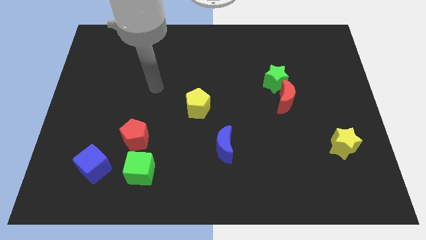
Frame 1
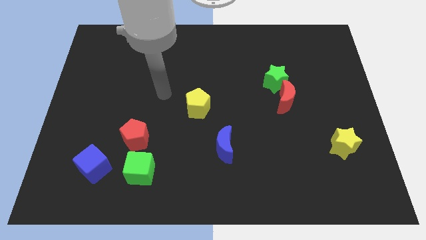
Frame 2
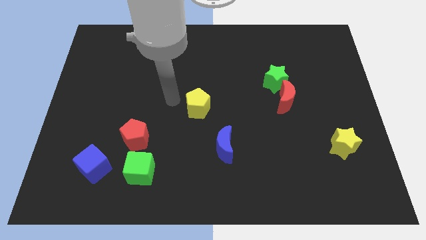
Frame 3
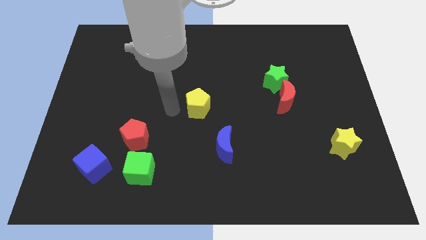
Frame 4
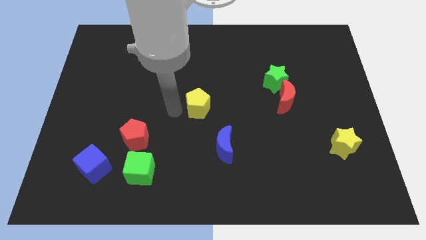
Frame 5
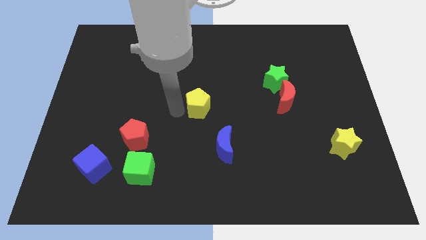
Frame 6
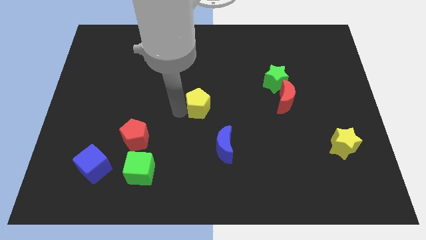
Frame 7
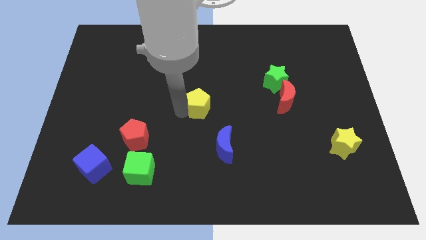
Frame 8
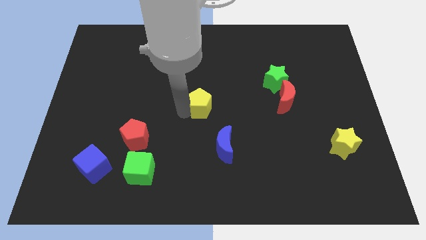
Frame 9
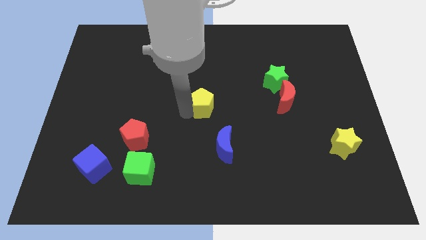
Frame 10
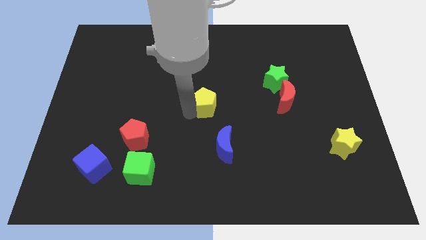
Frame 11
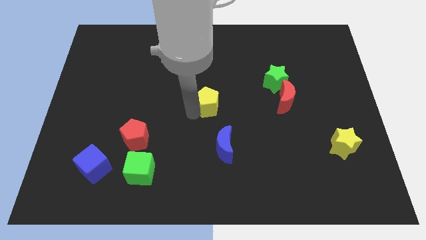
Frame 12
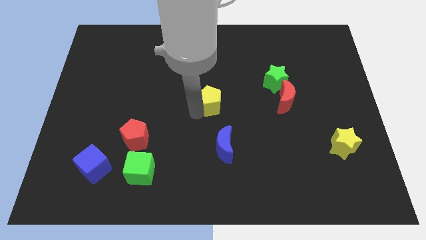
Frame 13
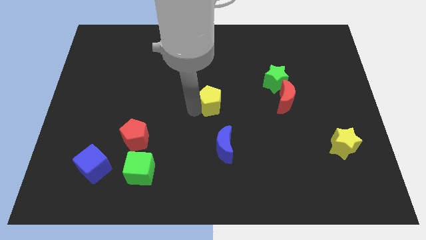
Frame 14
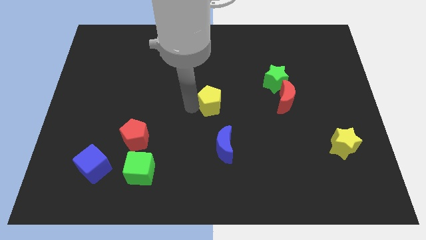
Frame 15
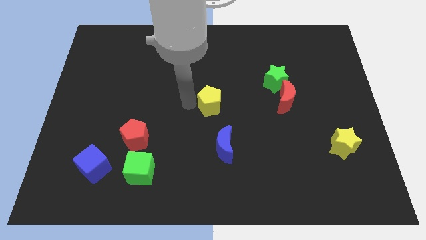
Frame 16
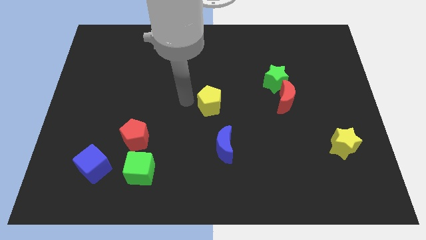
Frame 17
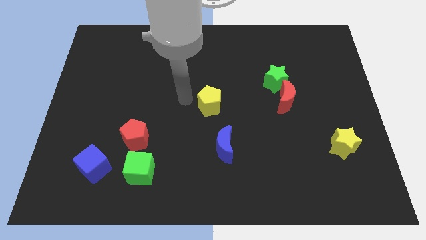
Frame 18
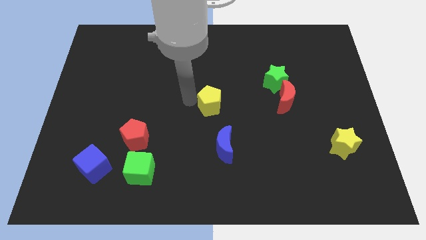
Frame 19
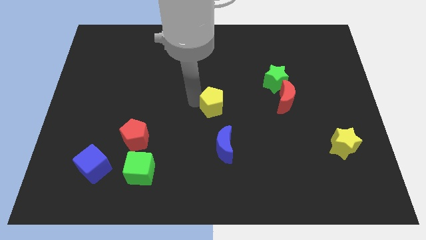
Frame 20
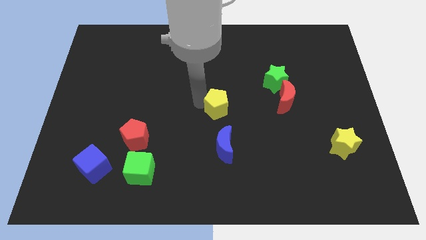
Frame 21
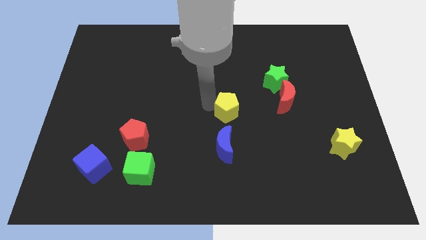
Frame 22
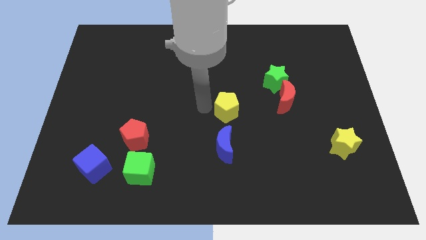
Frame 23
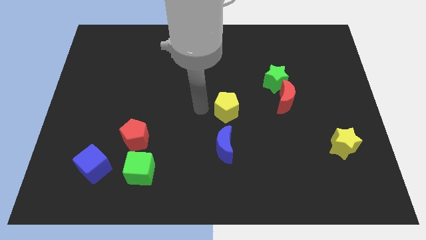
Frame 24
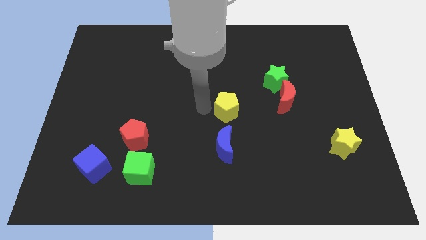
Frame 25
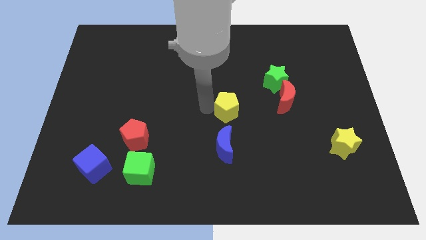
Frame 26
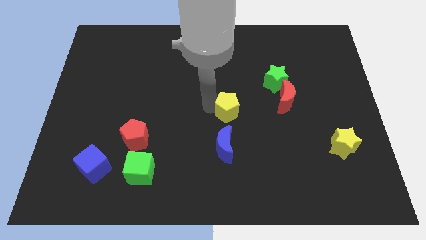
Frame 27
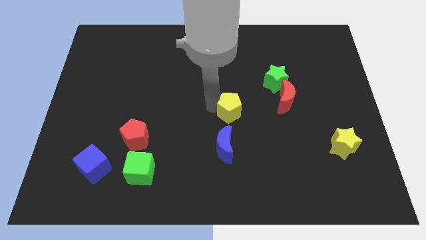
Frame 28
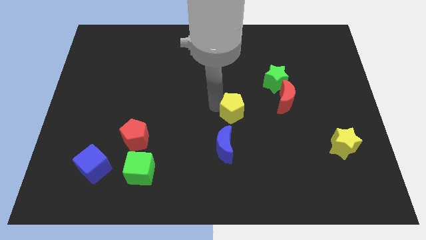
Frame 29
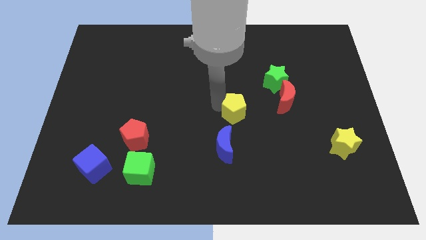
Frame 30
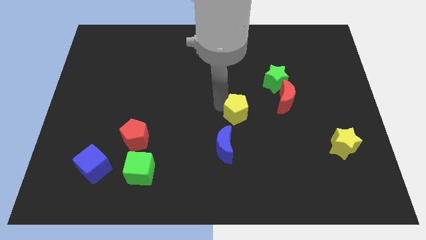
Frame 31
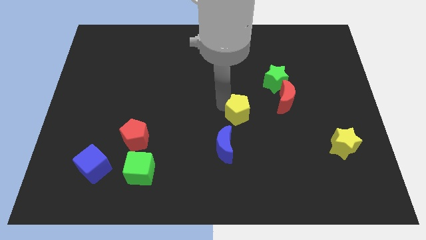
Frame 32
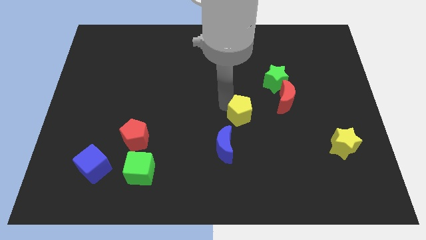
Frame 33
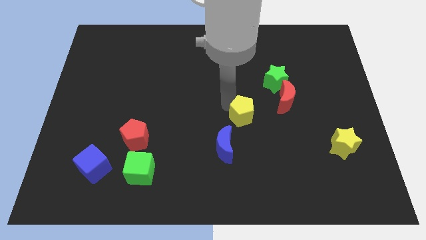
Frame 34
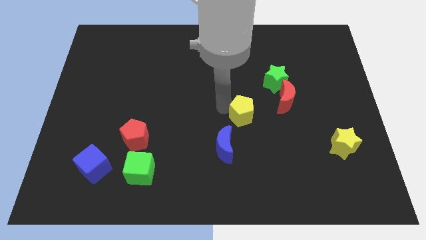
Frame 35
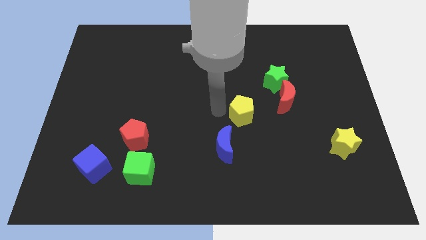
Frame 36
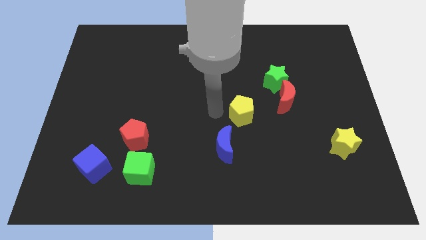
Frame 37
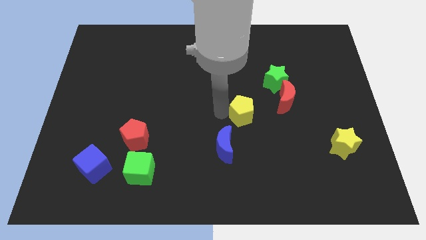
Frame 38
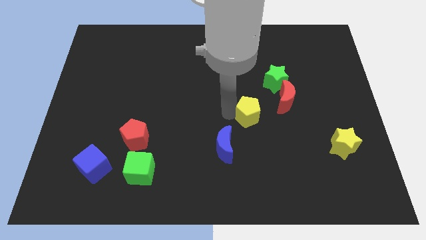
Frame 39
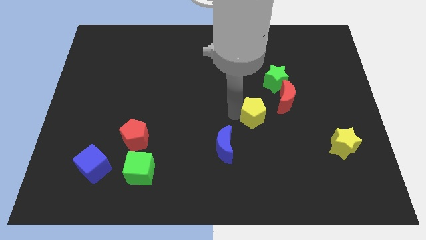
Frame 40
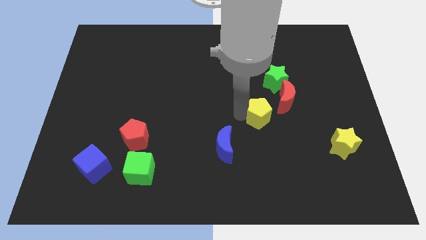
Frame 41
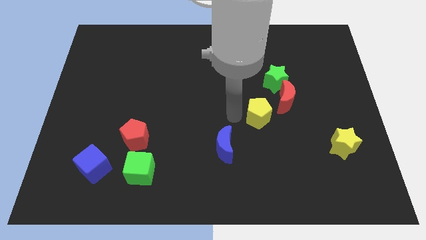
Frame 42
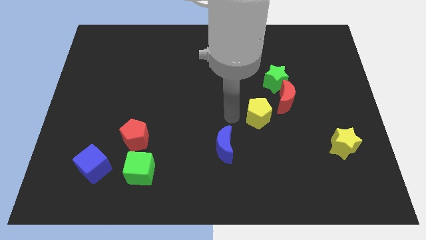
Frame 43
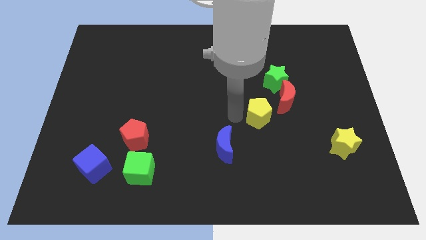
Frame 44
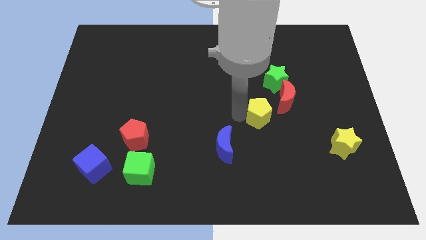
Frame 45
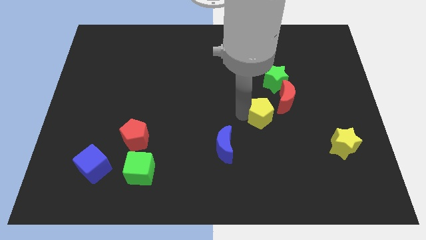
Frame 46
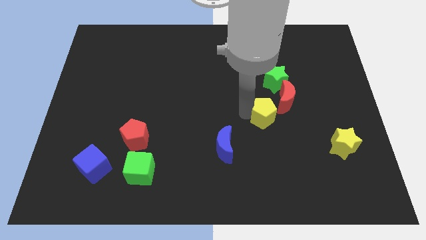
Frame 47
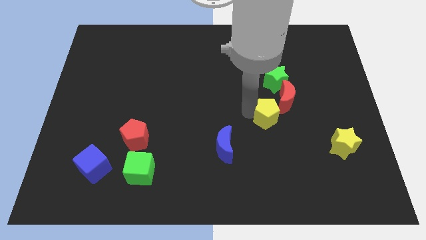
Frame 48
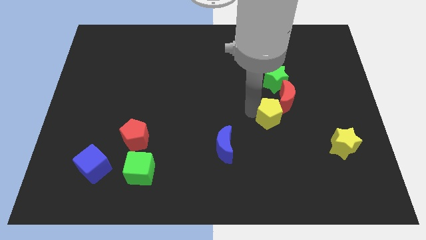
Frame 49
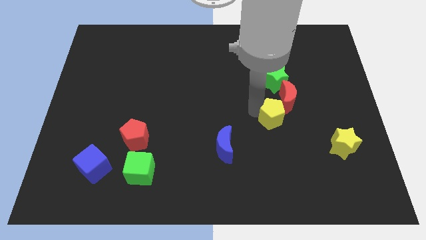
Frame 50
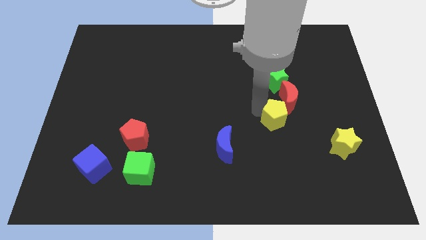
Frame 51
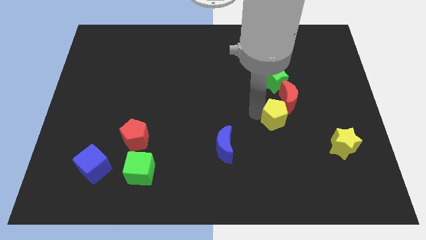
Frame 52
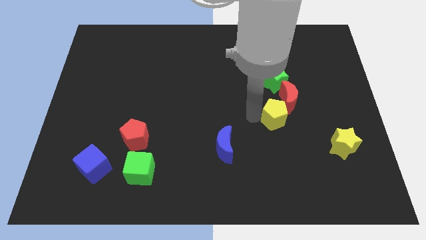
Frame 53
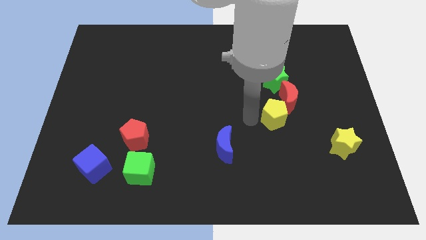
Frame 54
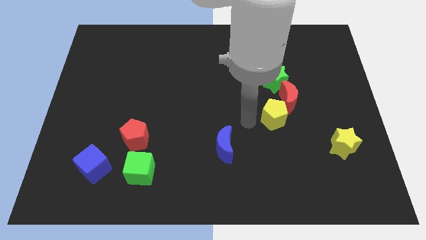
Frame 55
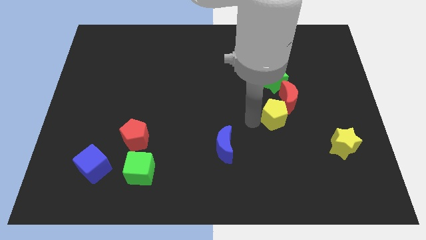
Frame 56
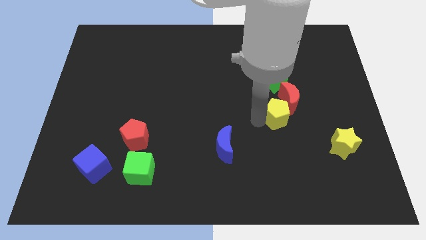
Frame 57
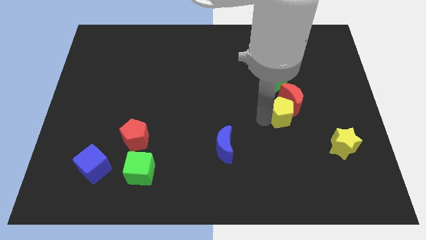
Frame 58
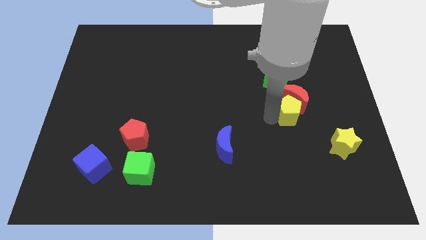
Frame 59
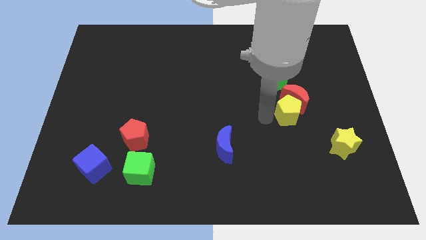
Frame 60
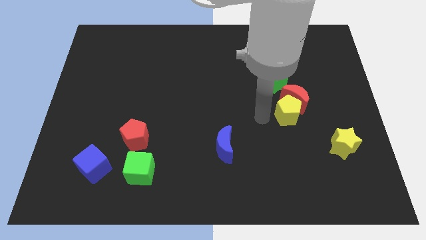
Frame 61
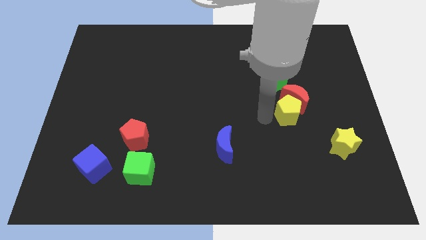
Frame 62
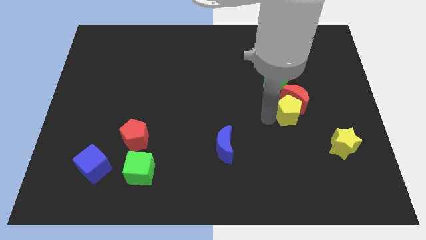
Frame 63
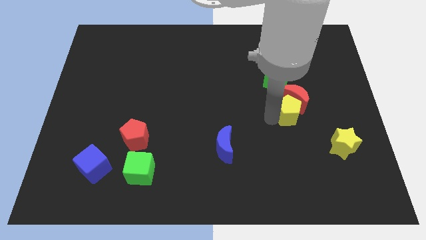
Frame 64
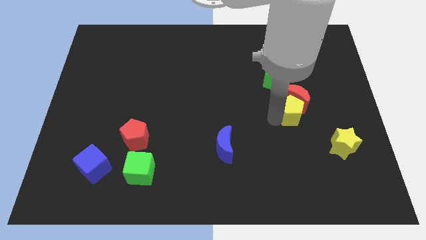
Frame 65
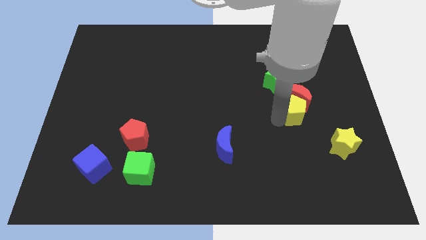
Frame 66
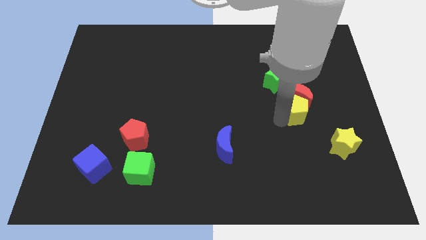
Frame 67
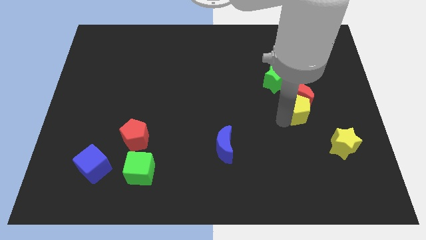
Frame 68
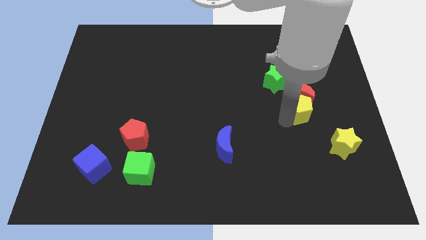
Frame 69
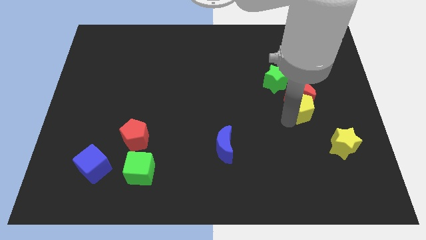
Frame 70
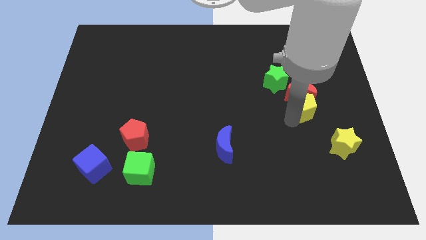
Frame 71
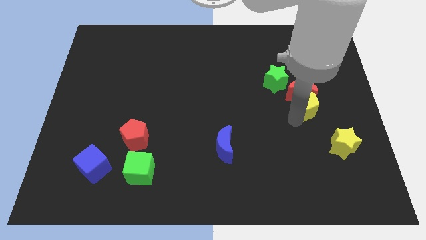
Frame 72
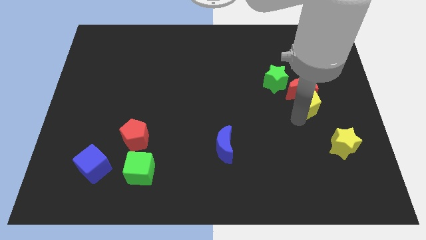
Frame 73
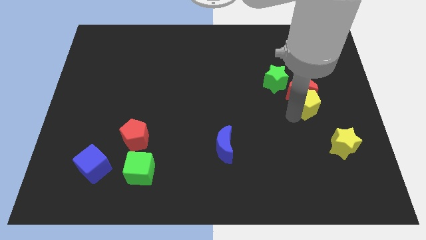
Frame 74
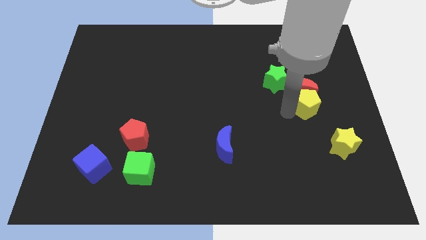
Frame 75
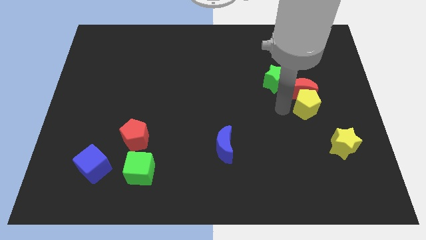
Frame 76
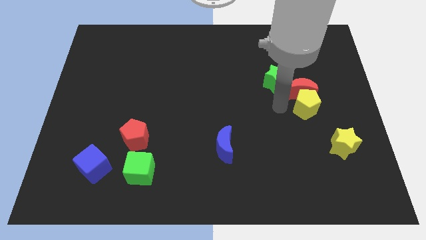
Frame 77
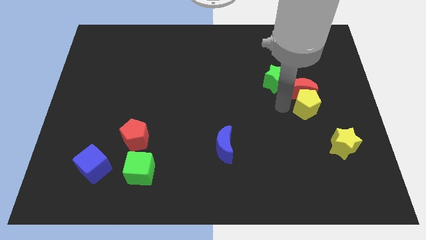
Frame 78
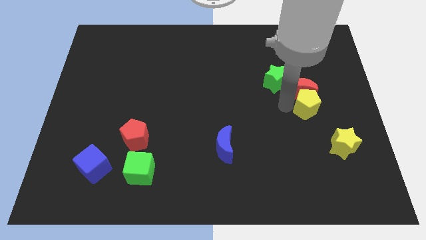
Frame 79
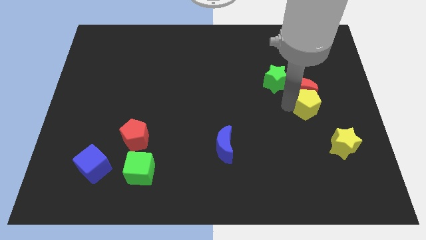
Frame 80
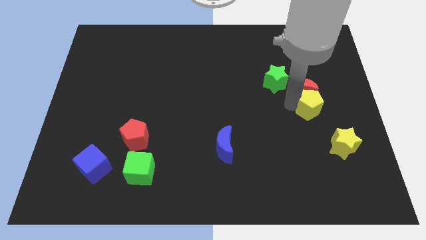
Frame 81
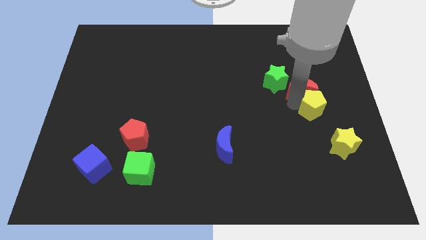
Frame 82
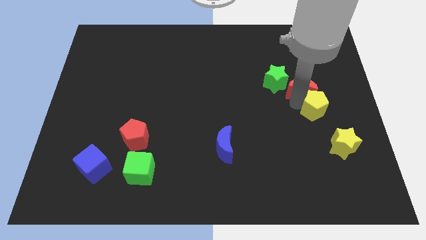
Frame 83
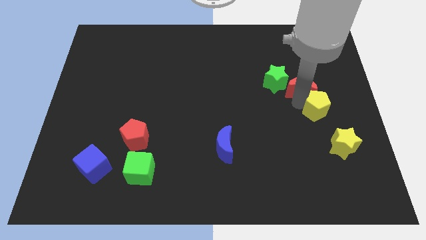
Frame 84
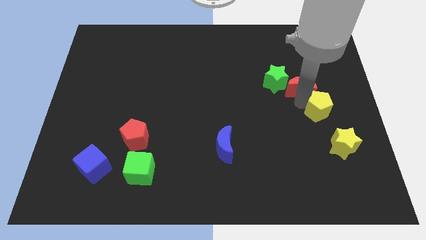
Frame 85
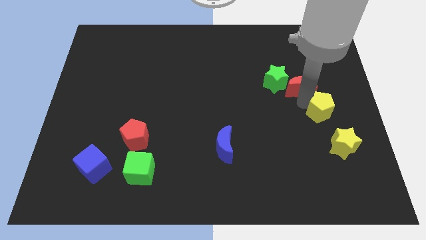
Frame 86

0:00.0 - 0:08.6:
slide the yellow pentagon to the center right
